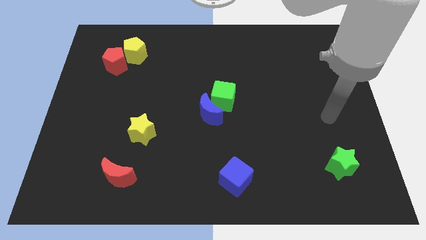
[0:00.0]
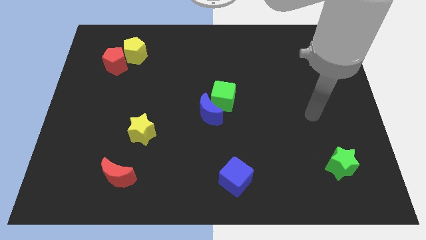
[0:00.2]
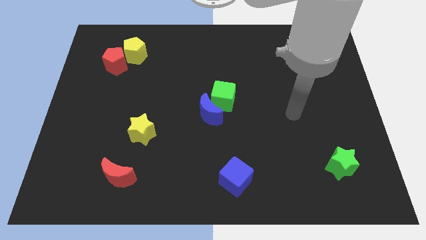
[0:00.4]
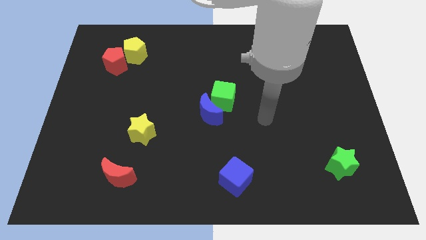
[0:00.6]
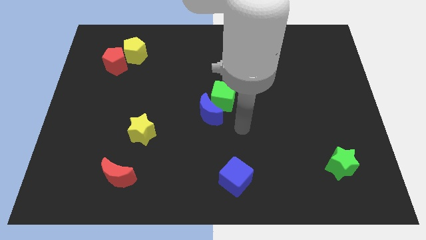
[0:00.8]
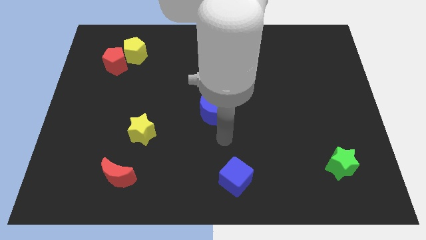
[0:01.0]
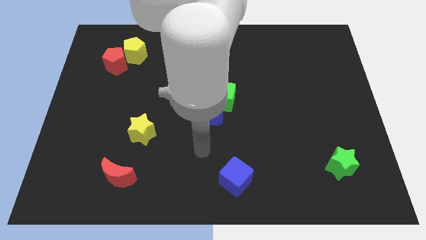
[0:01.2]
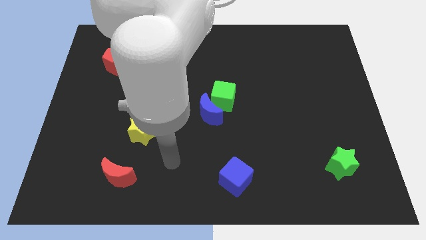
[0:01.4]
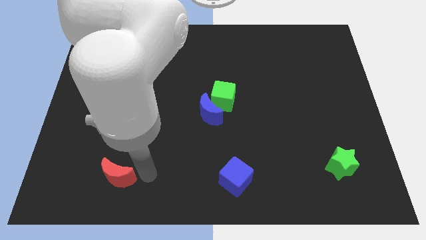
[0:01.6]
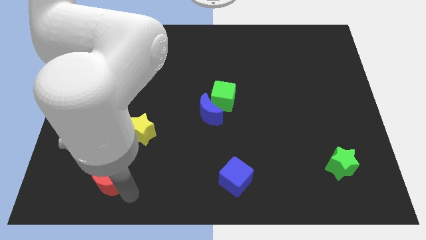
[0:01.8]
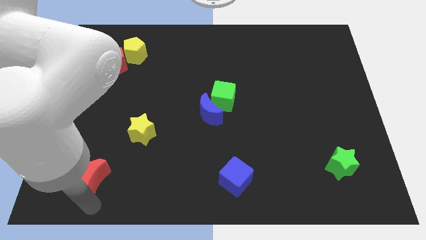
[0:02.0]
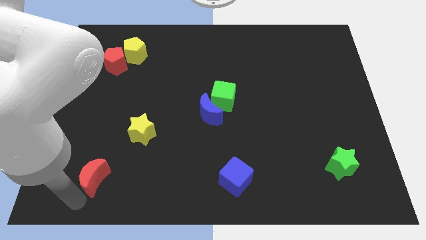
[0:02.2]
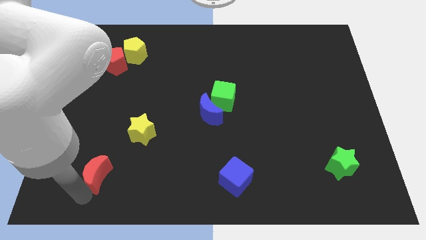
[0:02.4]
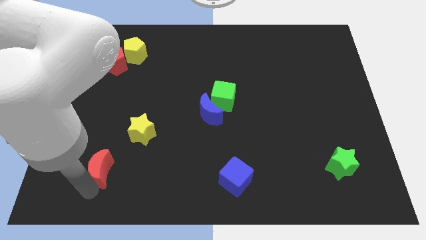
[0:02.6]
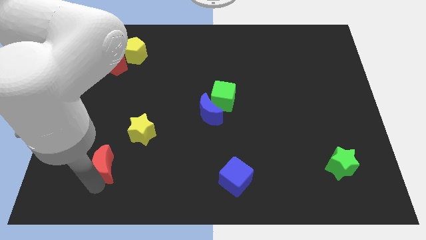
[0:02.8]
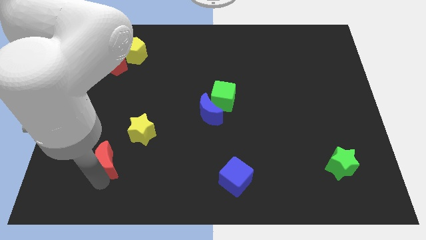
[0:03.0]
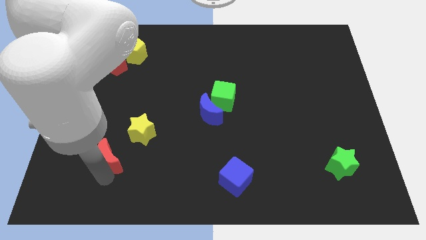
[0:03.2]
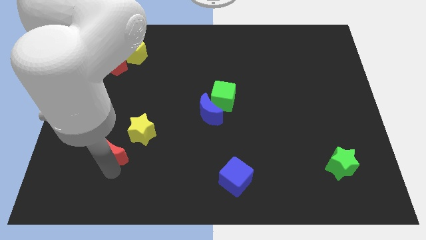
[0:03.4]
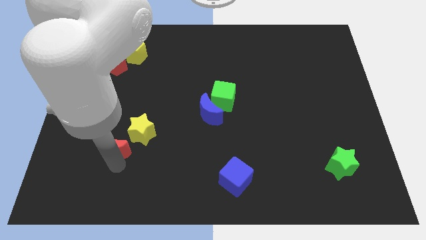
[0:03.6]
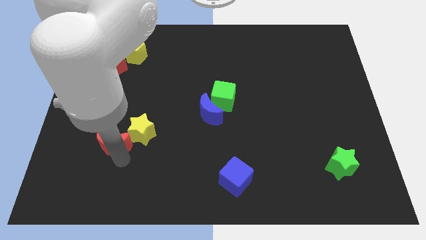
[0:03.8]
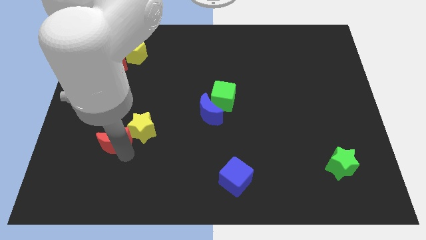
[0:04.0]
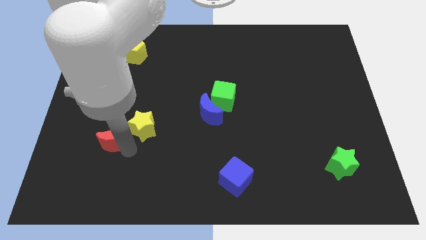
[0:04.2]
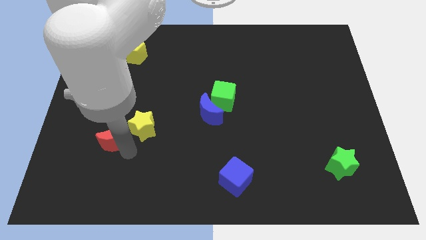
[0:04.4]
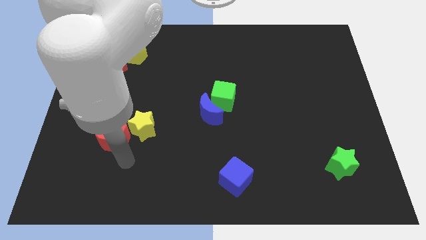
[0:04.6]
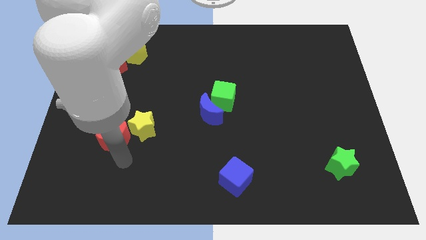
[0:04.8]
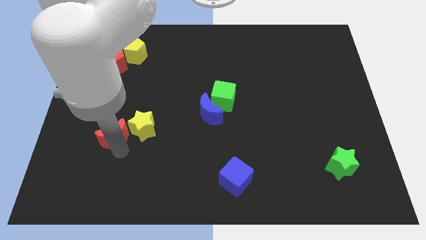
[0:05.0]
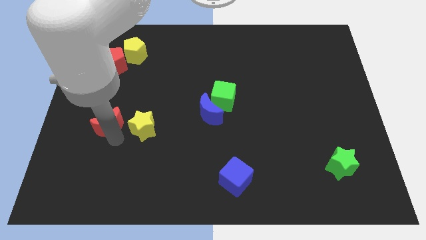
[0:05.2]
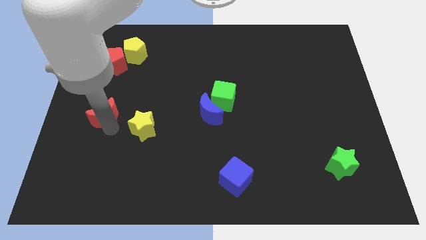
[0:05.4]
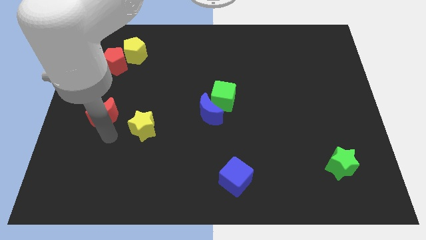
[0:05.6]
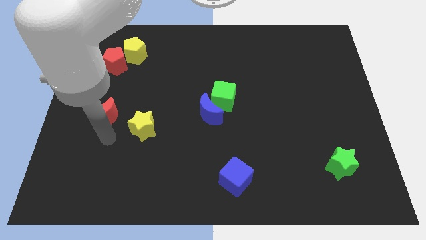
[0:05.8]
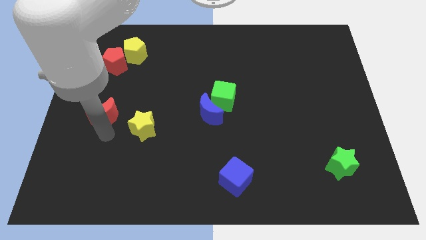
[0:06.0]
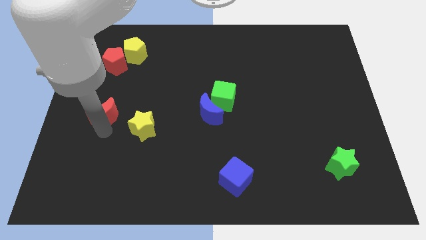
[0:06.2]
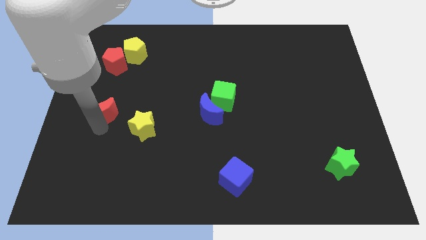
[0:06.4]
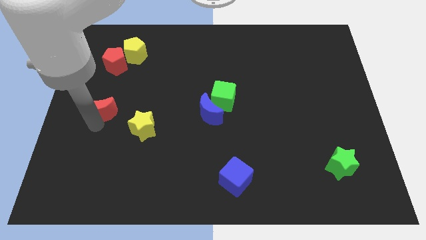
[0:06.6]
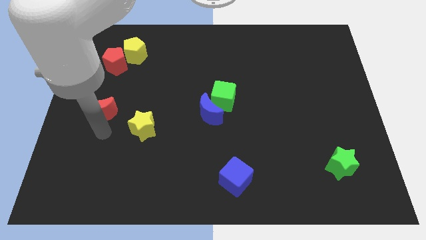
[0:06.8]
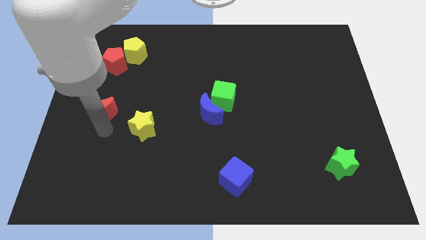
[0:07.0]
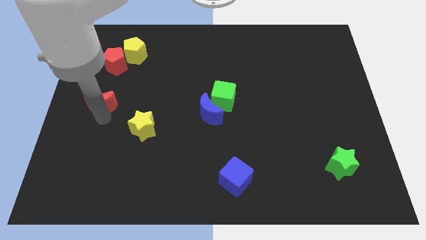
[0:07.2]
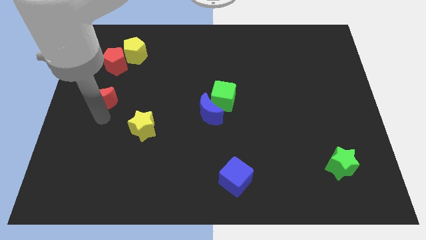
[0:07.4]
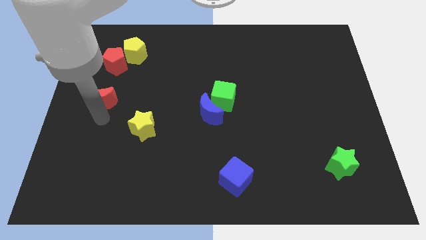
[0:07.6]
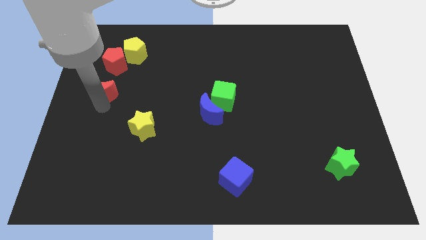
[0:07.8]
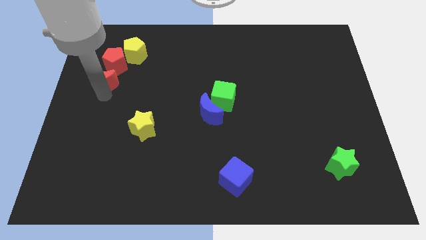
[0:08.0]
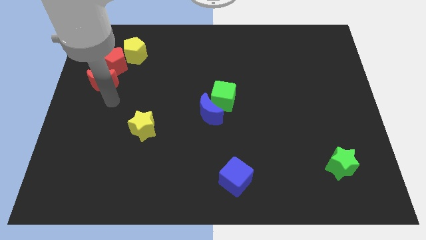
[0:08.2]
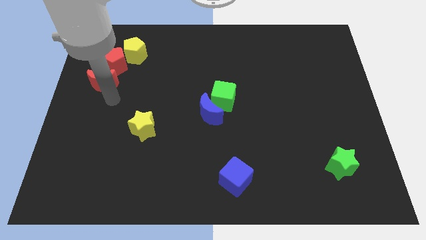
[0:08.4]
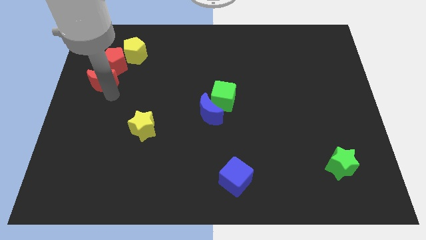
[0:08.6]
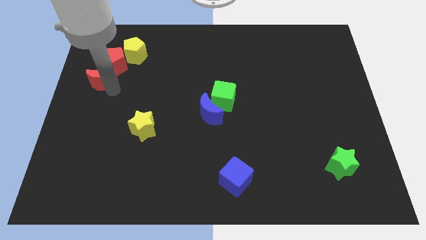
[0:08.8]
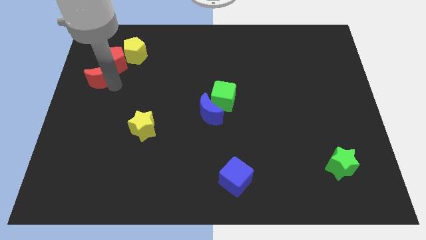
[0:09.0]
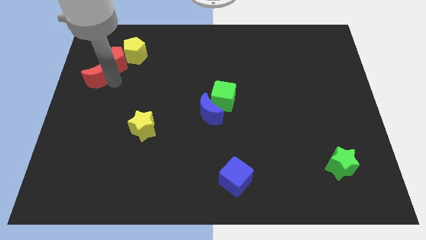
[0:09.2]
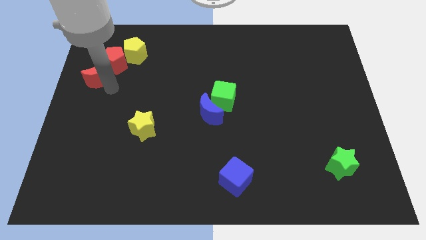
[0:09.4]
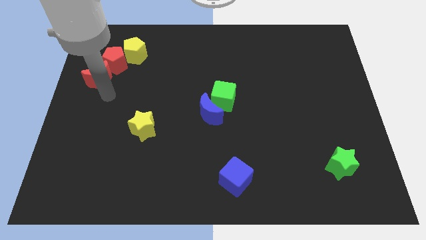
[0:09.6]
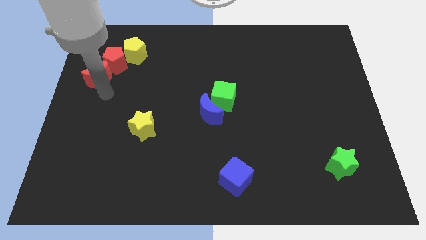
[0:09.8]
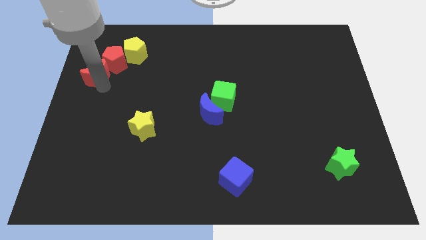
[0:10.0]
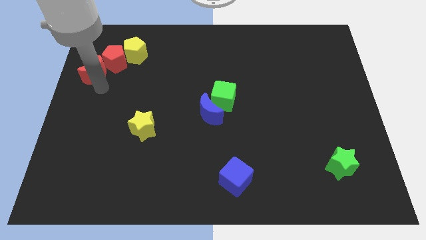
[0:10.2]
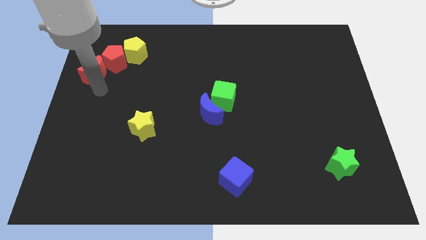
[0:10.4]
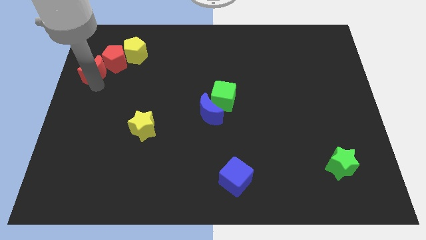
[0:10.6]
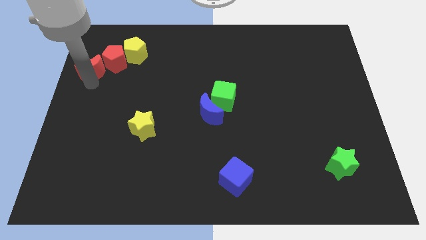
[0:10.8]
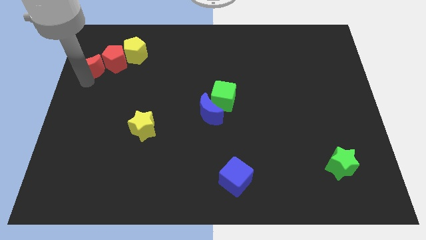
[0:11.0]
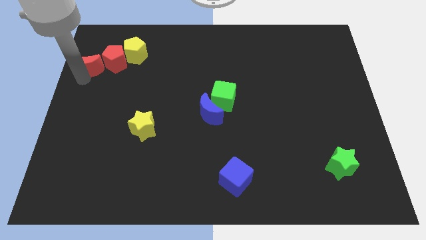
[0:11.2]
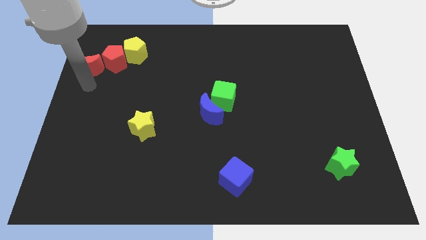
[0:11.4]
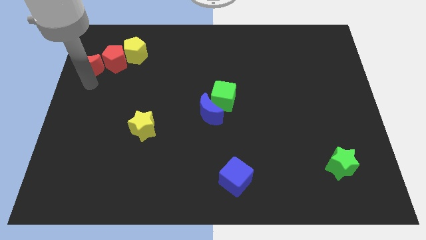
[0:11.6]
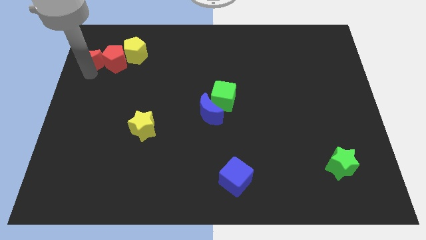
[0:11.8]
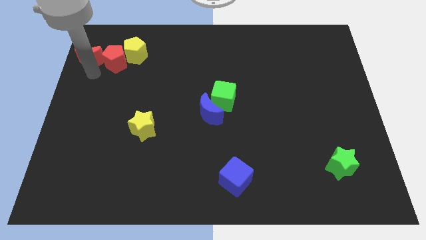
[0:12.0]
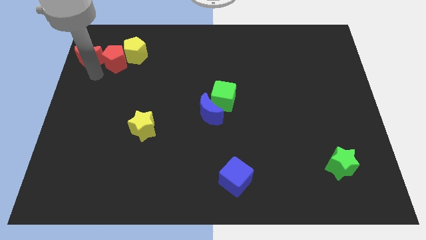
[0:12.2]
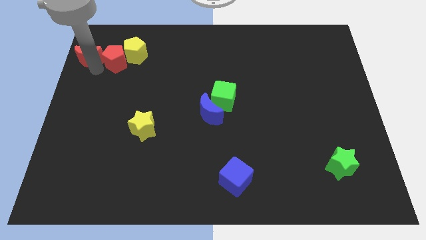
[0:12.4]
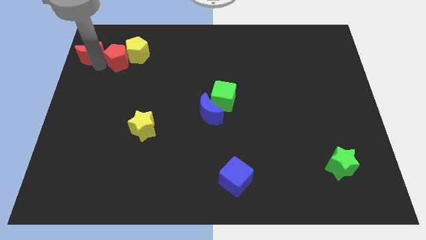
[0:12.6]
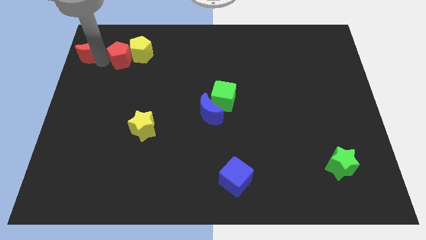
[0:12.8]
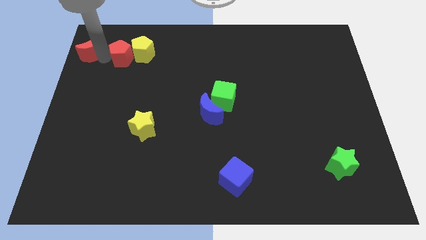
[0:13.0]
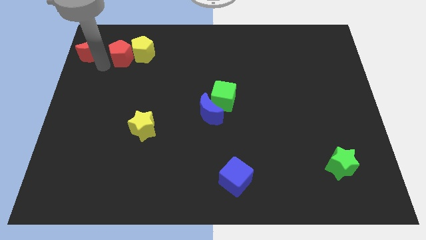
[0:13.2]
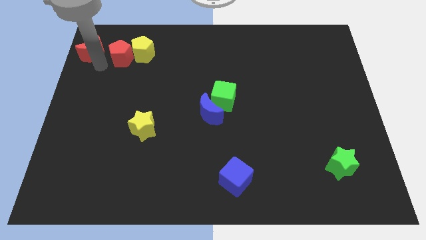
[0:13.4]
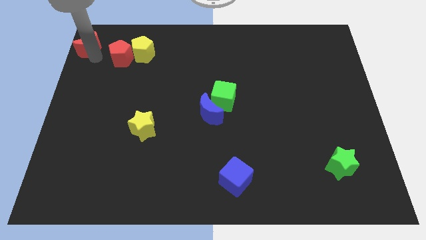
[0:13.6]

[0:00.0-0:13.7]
move the red moon to the top left

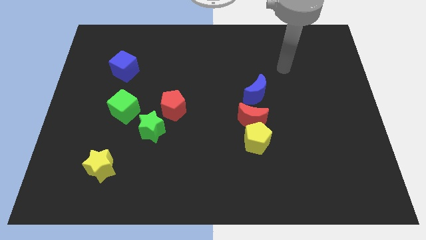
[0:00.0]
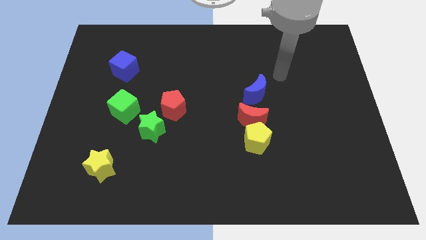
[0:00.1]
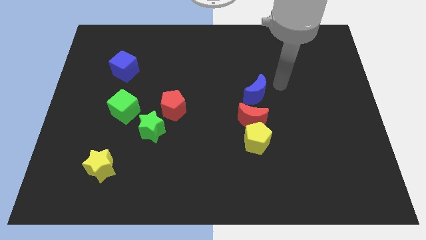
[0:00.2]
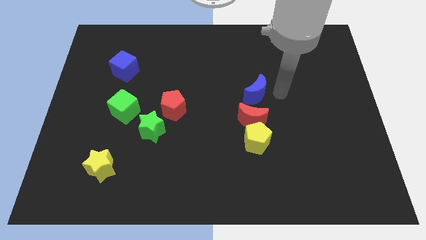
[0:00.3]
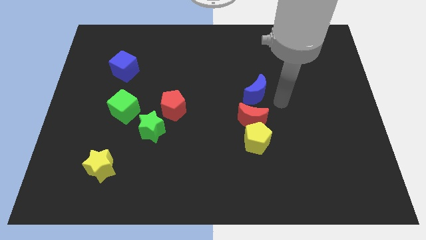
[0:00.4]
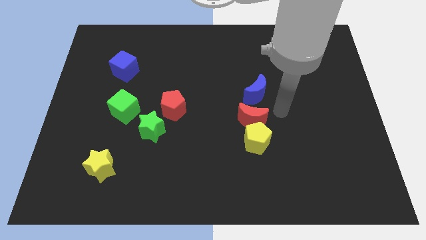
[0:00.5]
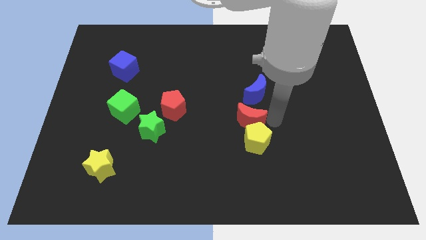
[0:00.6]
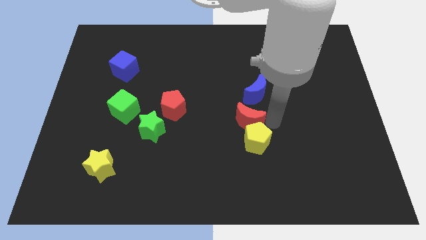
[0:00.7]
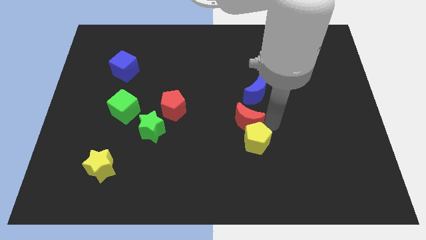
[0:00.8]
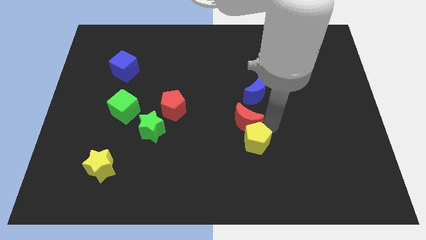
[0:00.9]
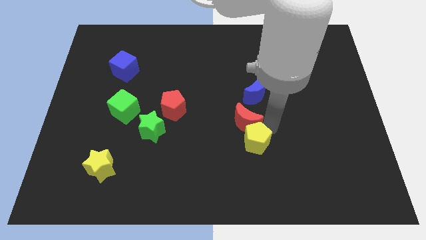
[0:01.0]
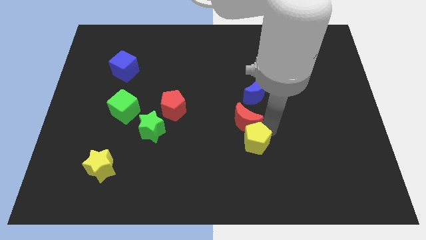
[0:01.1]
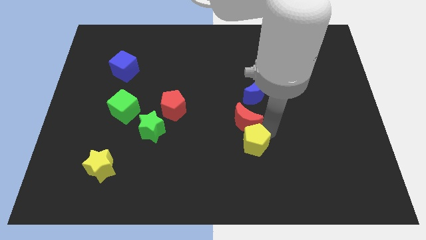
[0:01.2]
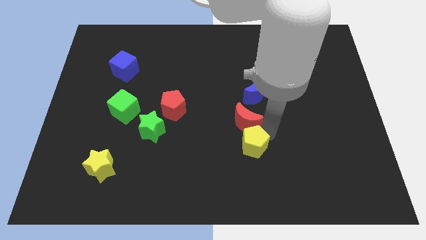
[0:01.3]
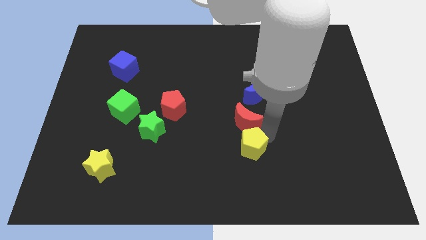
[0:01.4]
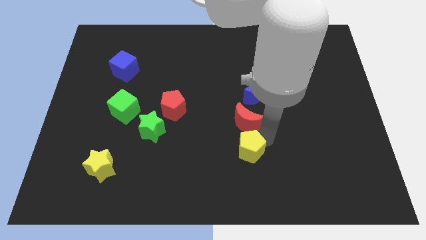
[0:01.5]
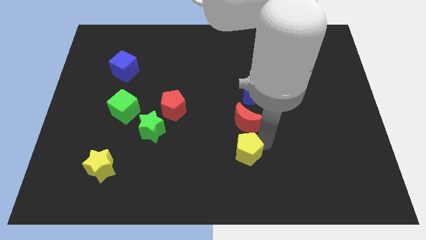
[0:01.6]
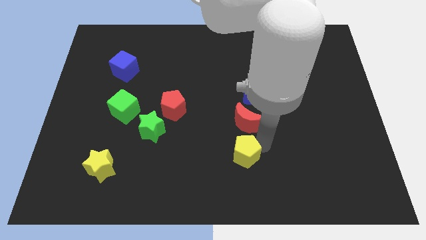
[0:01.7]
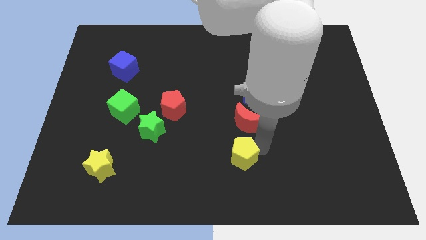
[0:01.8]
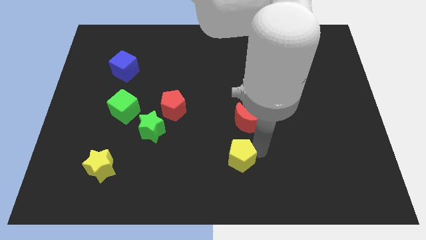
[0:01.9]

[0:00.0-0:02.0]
move the yellow pentagon to the bottom
